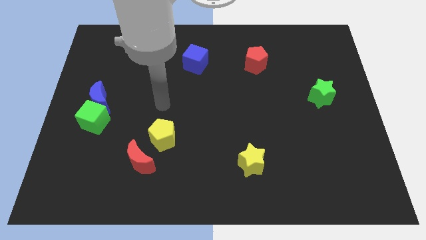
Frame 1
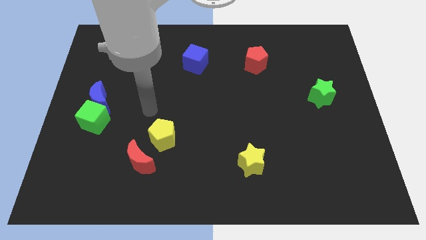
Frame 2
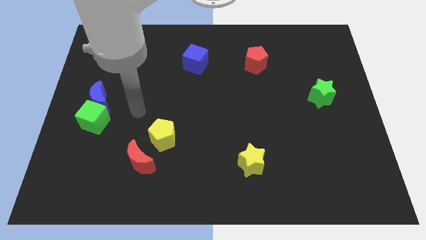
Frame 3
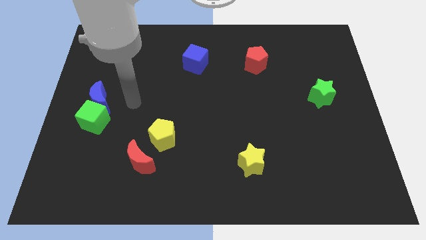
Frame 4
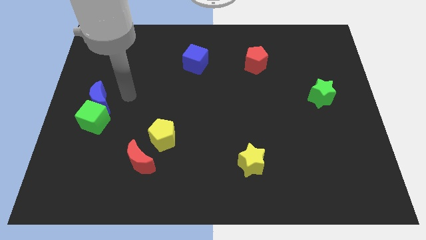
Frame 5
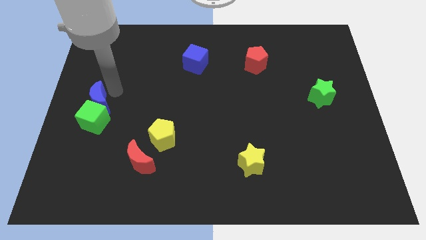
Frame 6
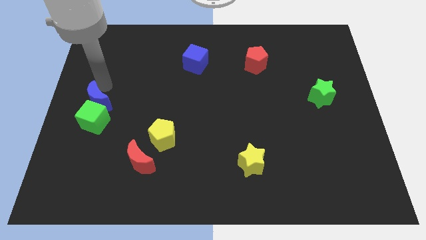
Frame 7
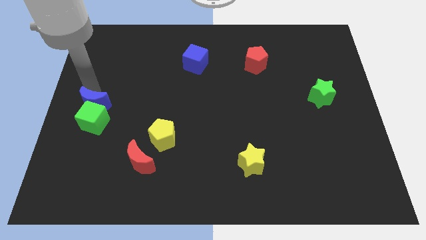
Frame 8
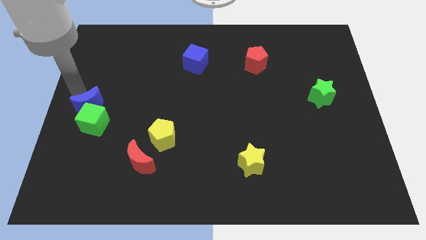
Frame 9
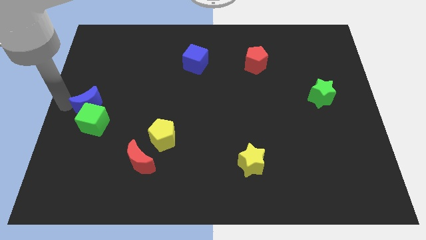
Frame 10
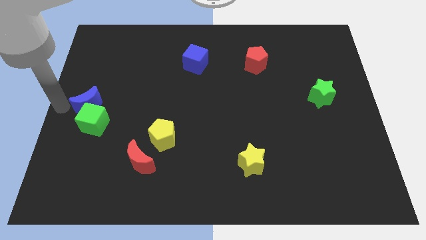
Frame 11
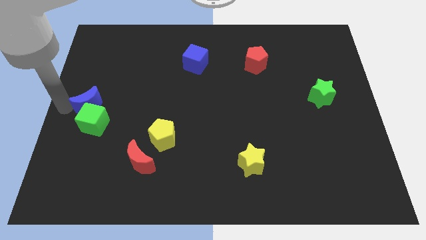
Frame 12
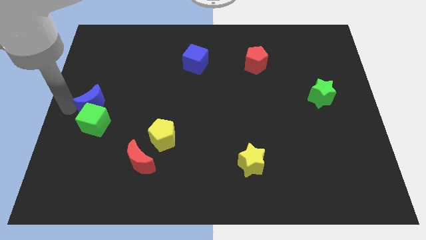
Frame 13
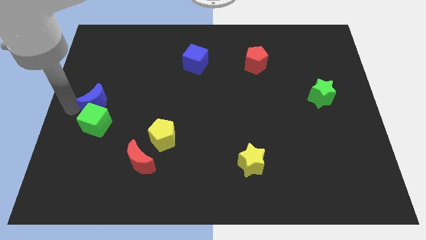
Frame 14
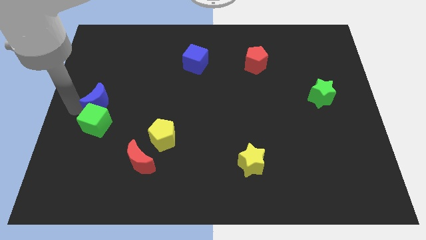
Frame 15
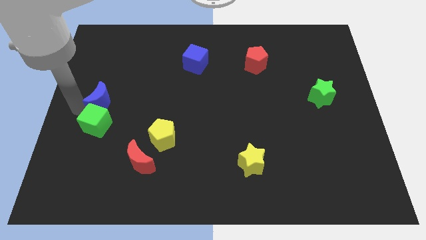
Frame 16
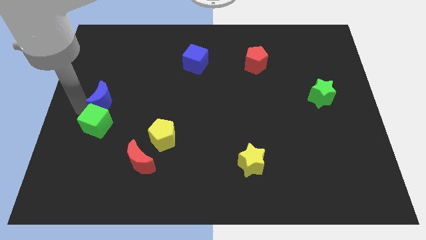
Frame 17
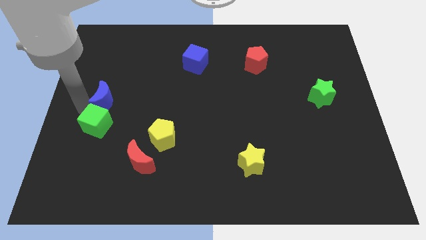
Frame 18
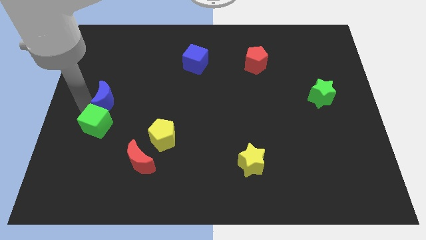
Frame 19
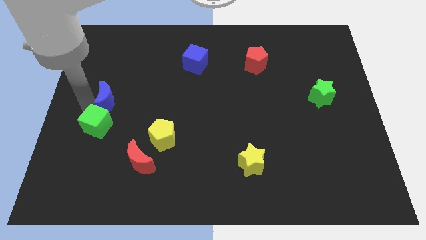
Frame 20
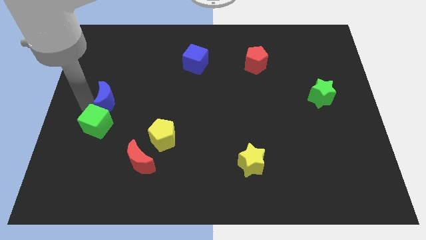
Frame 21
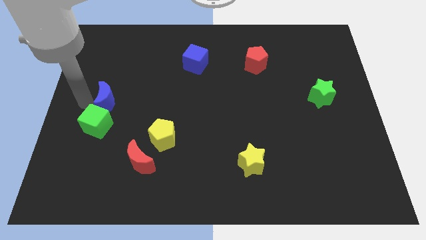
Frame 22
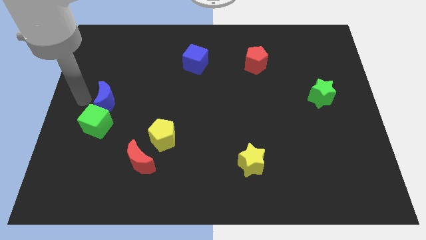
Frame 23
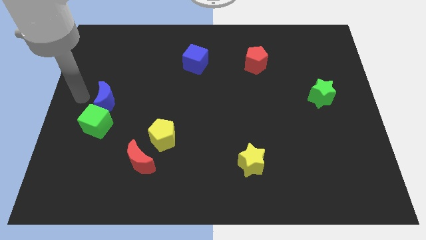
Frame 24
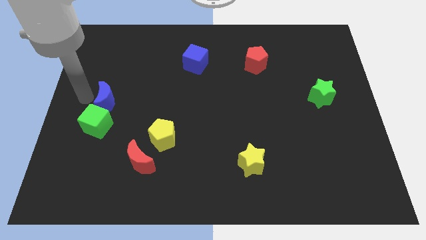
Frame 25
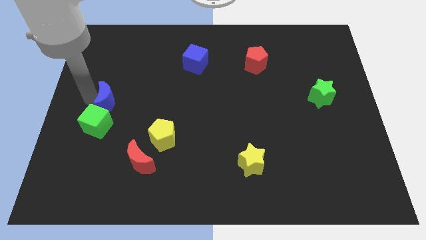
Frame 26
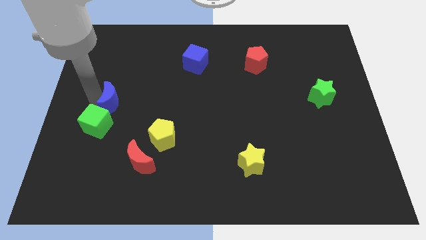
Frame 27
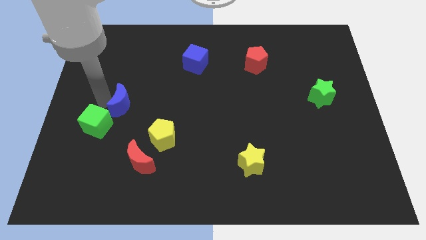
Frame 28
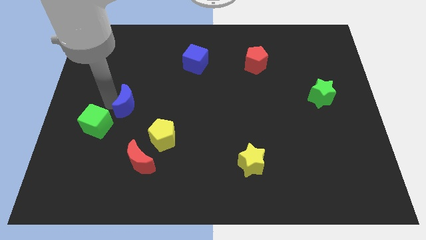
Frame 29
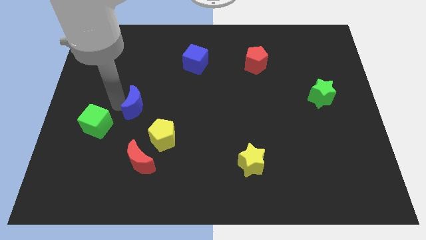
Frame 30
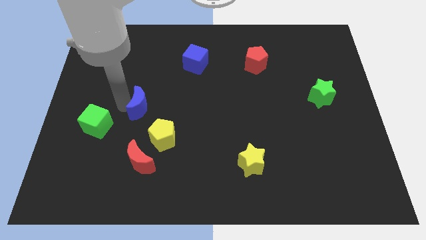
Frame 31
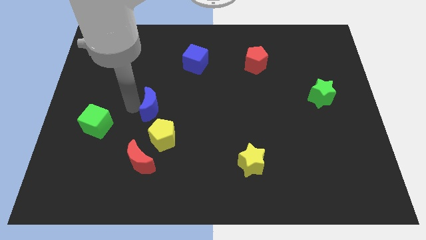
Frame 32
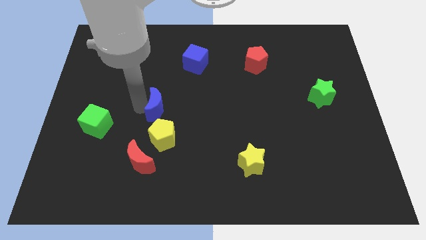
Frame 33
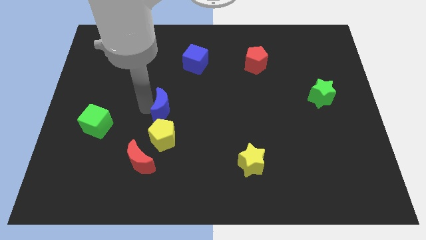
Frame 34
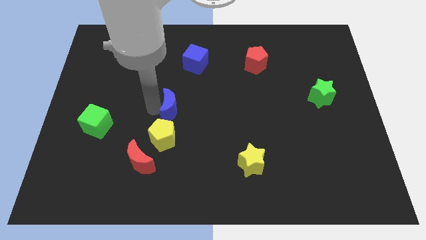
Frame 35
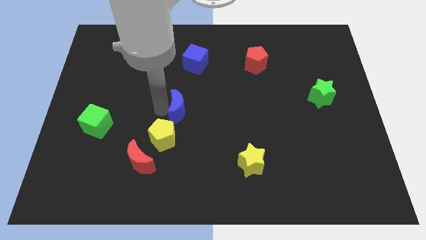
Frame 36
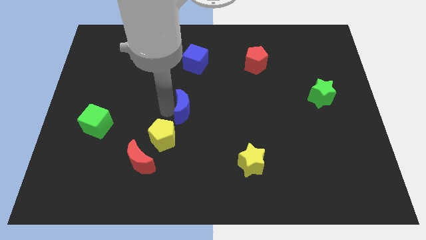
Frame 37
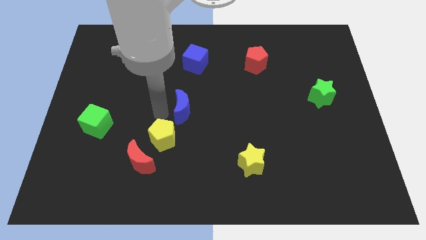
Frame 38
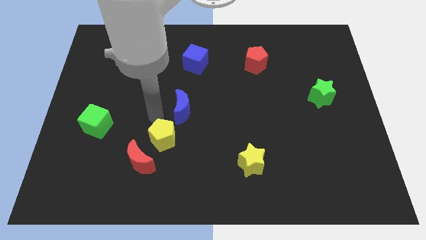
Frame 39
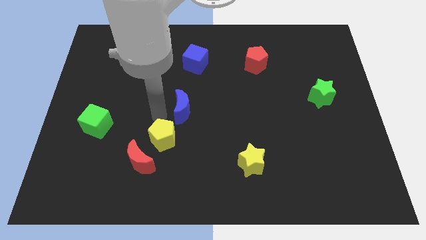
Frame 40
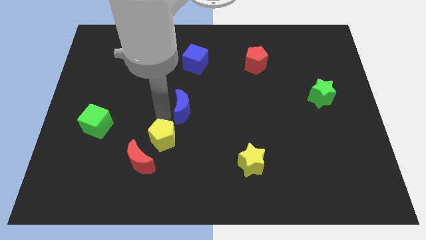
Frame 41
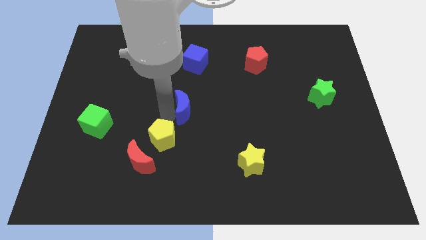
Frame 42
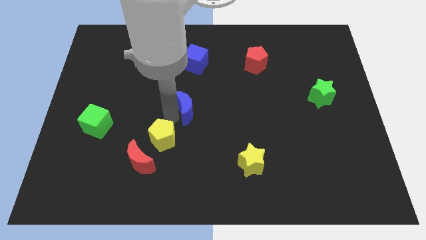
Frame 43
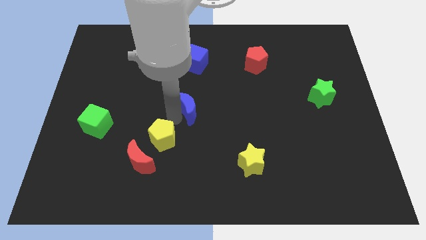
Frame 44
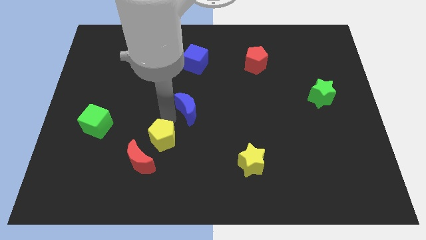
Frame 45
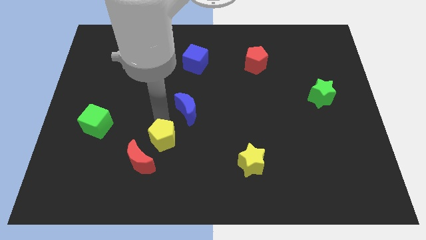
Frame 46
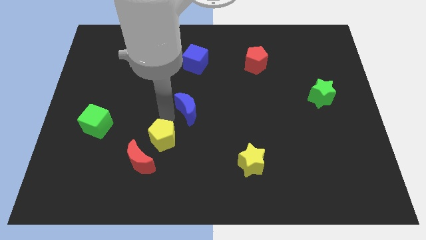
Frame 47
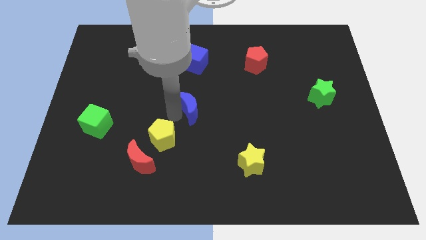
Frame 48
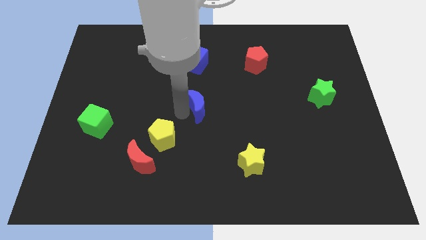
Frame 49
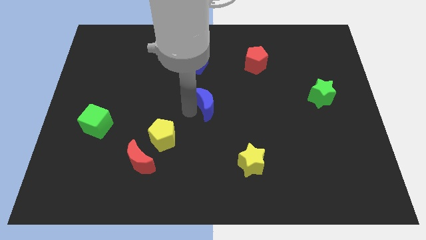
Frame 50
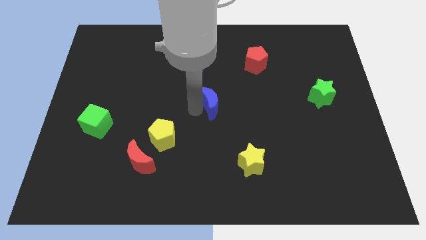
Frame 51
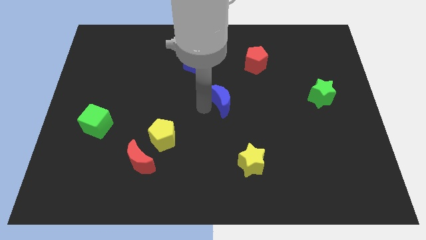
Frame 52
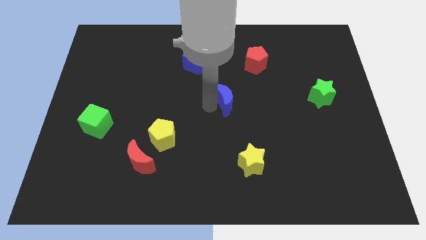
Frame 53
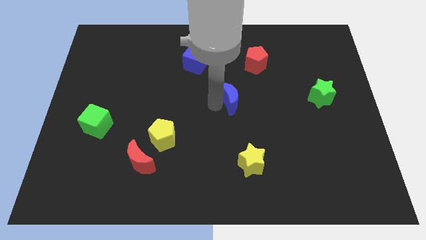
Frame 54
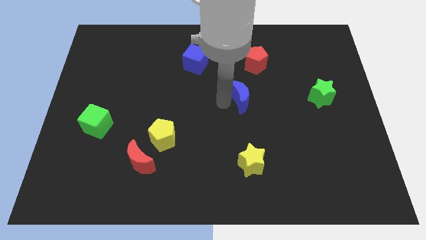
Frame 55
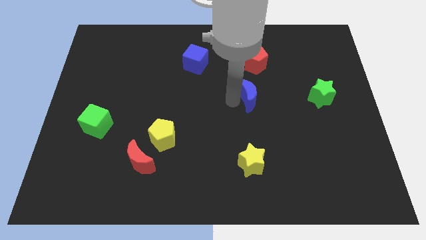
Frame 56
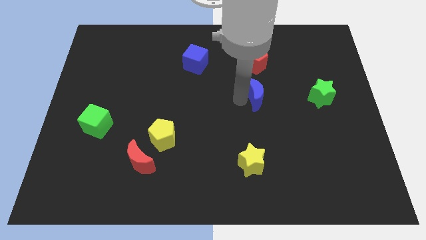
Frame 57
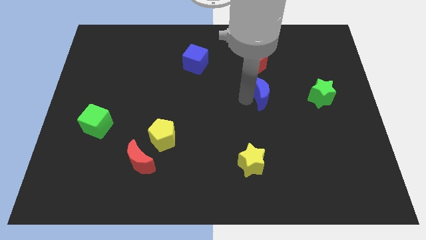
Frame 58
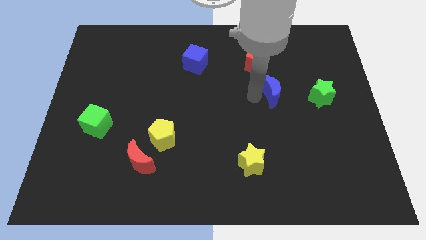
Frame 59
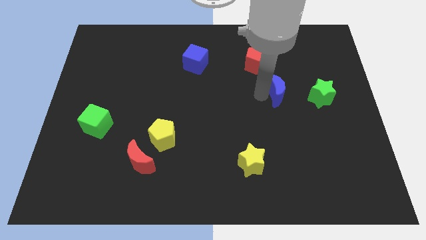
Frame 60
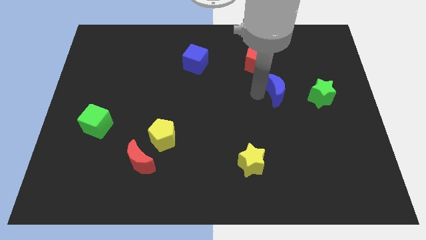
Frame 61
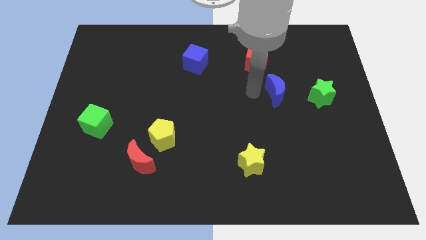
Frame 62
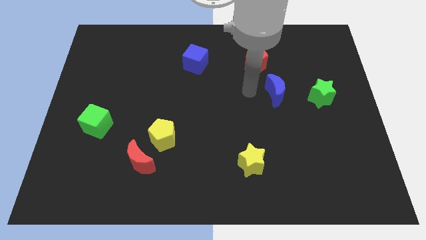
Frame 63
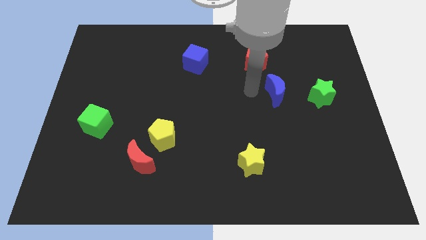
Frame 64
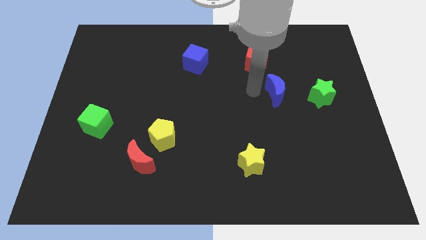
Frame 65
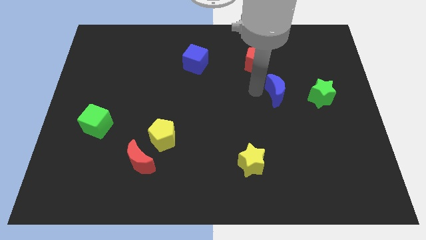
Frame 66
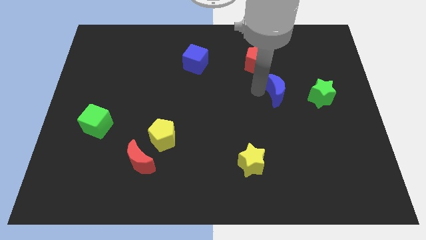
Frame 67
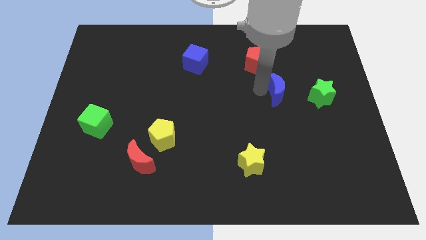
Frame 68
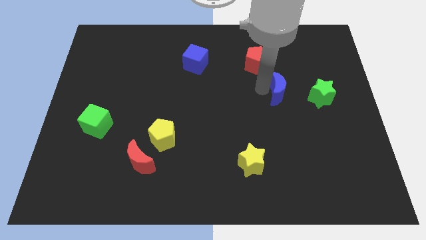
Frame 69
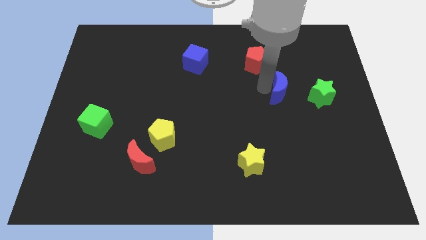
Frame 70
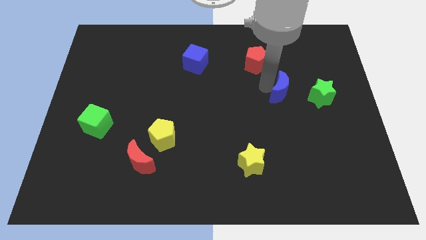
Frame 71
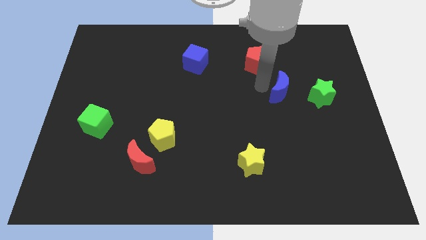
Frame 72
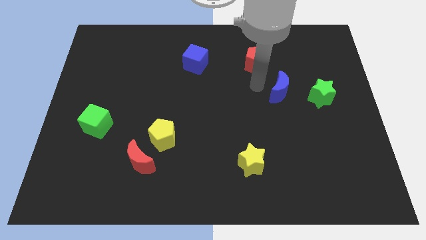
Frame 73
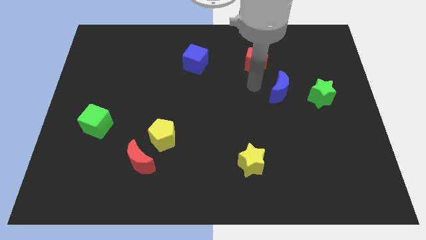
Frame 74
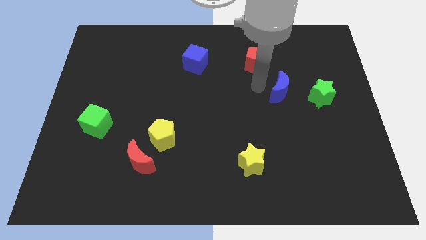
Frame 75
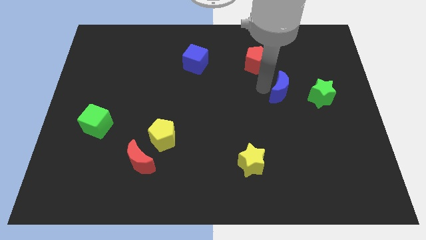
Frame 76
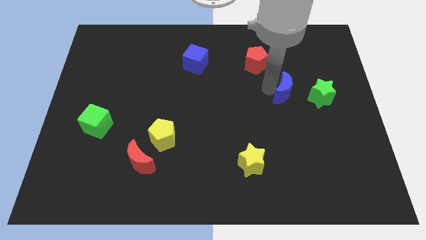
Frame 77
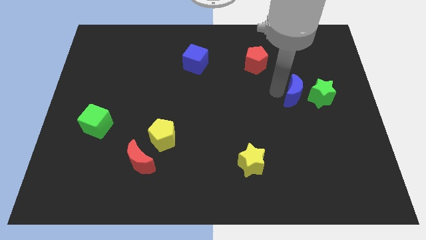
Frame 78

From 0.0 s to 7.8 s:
slide the blue moon to the green star
